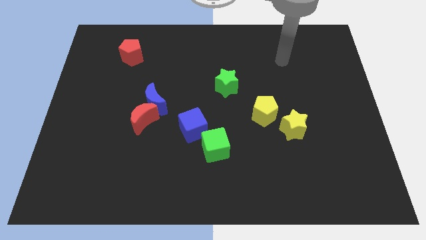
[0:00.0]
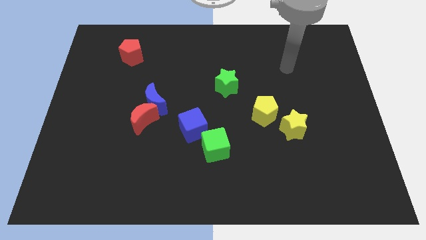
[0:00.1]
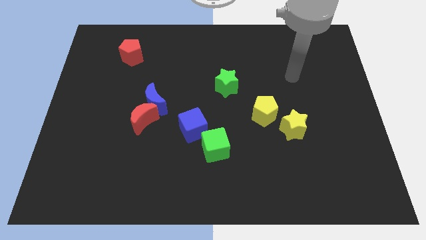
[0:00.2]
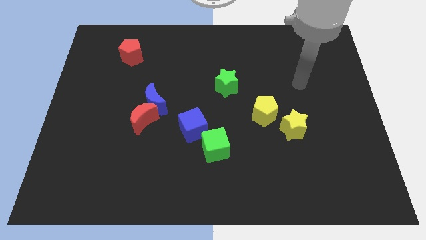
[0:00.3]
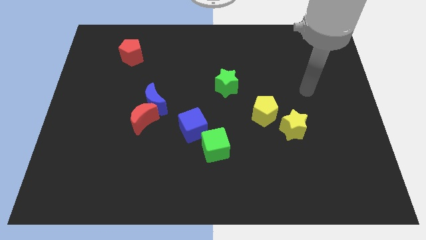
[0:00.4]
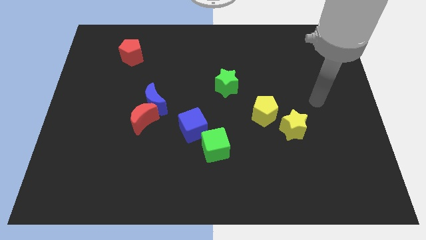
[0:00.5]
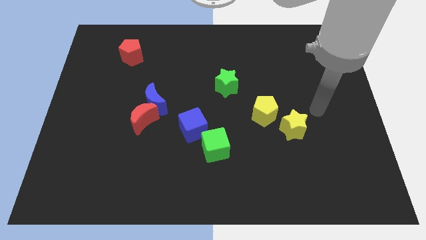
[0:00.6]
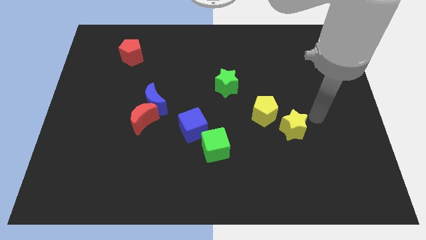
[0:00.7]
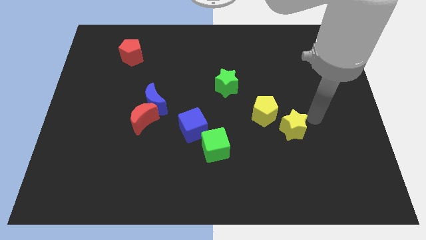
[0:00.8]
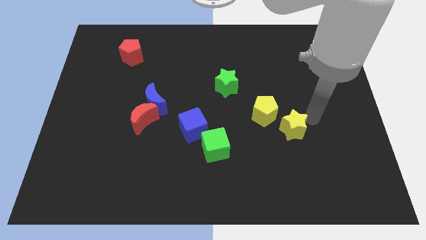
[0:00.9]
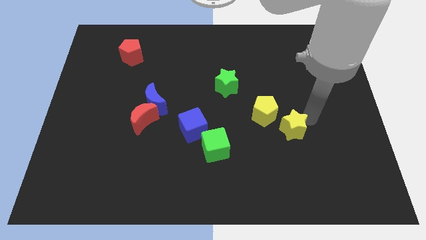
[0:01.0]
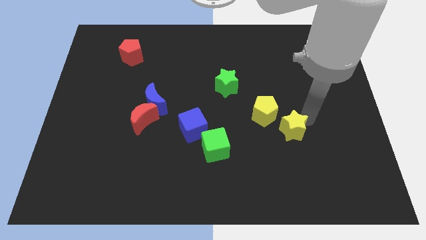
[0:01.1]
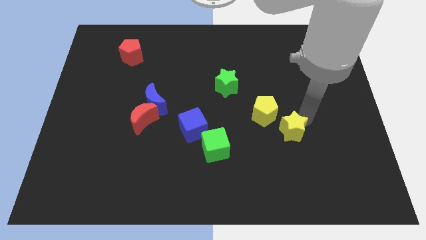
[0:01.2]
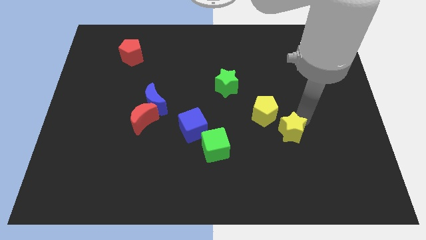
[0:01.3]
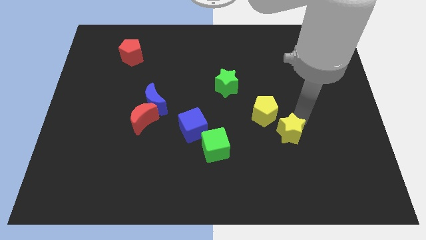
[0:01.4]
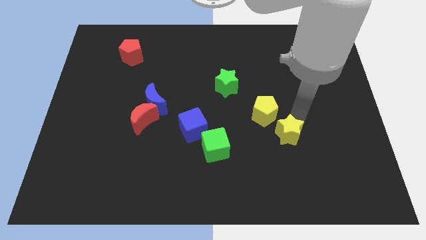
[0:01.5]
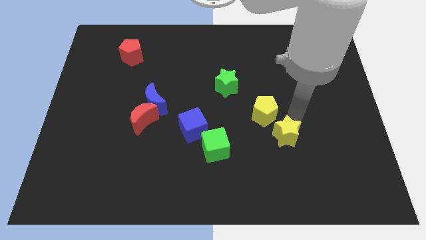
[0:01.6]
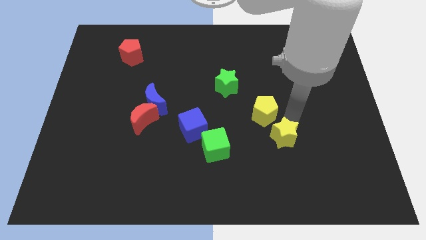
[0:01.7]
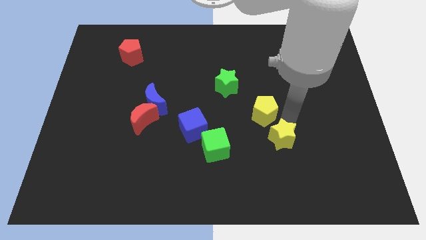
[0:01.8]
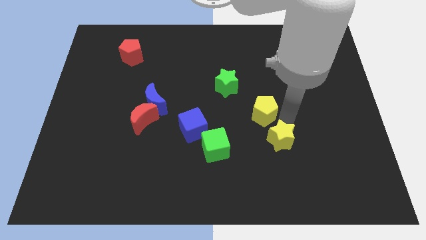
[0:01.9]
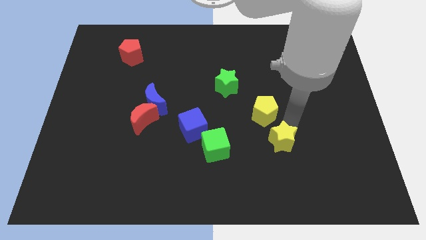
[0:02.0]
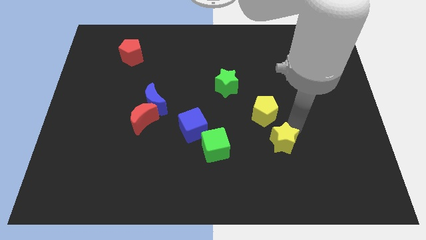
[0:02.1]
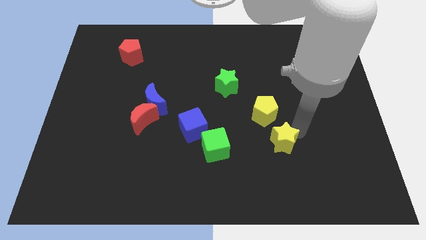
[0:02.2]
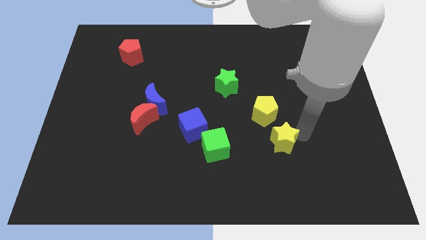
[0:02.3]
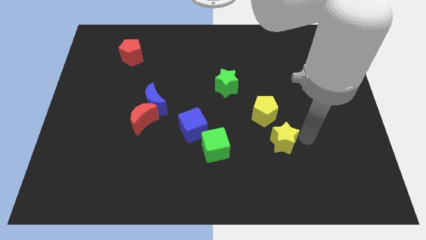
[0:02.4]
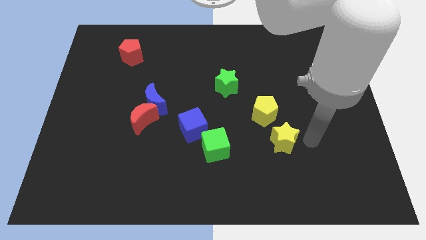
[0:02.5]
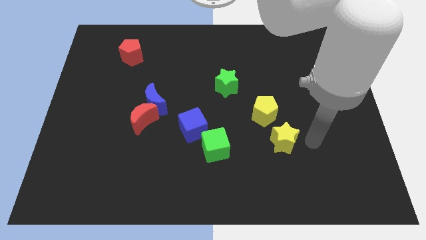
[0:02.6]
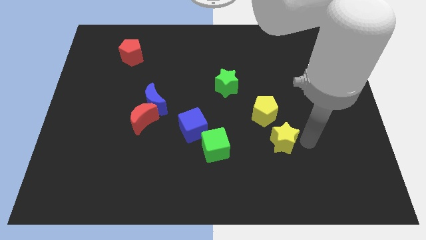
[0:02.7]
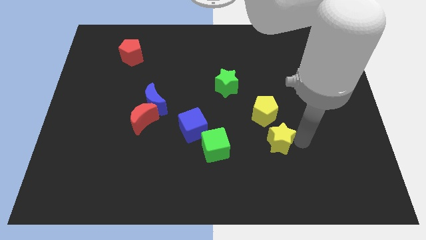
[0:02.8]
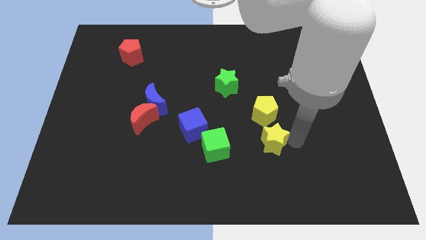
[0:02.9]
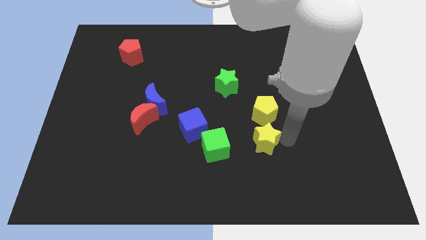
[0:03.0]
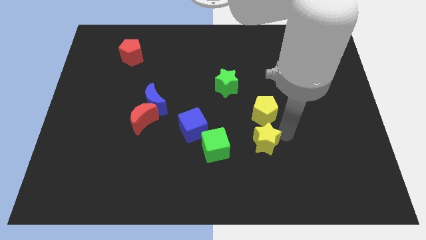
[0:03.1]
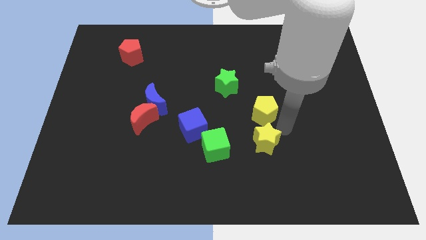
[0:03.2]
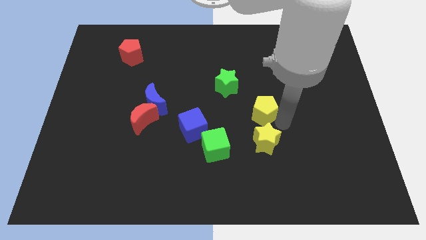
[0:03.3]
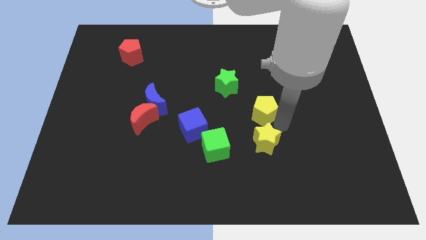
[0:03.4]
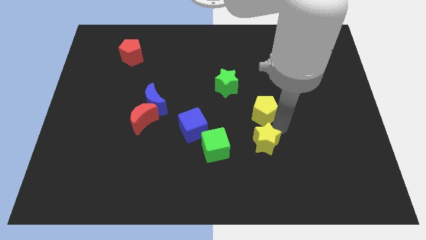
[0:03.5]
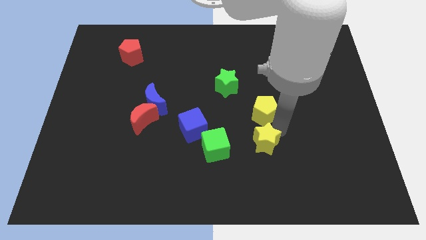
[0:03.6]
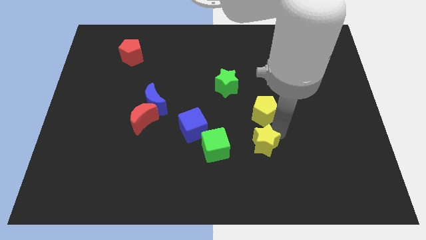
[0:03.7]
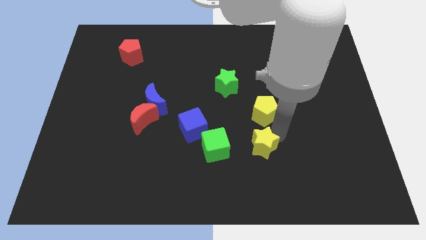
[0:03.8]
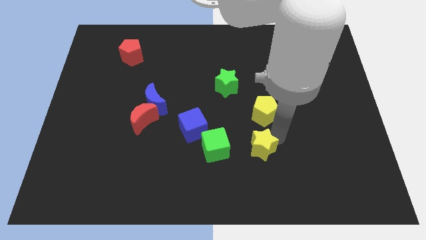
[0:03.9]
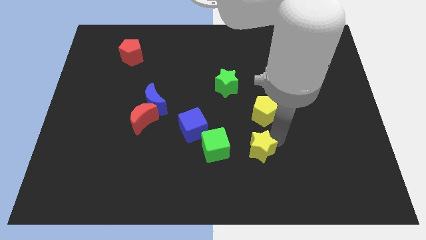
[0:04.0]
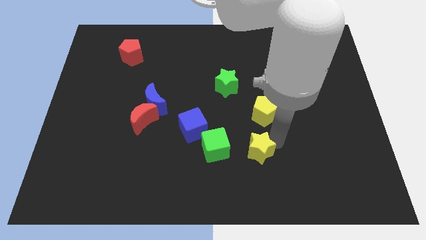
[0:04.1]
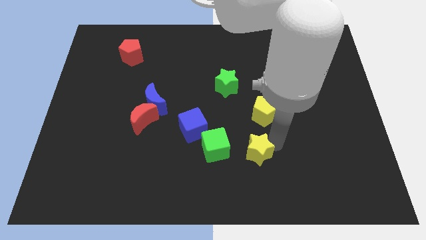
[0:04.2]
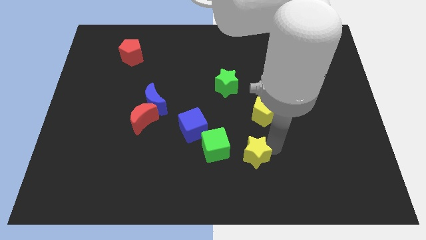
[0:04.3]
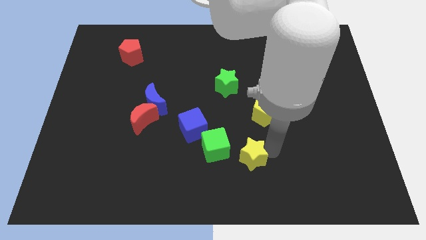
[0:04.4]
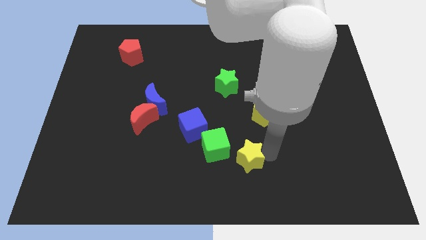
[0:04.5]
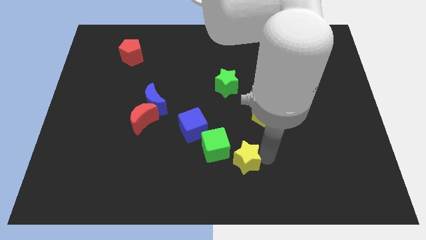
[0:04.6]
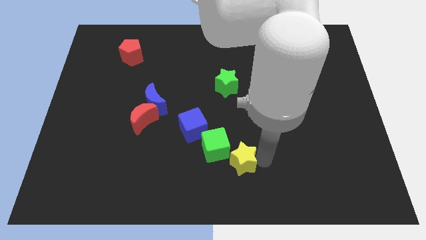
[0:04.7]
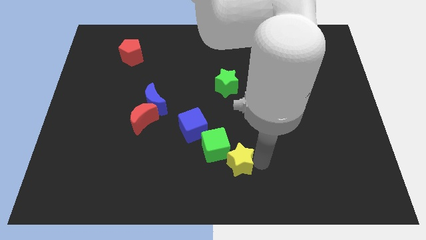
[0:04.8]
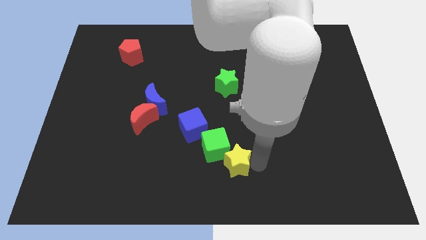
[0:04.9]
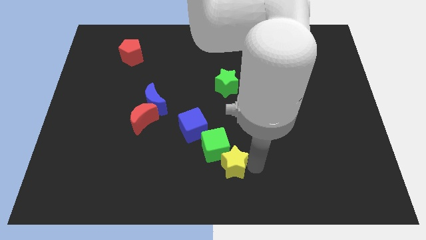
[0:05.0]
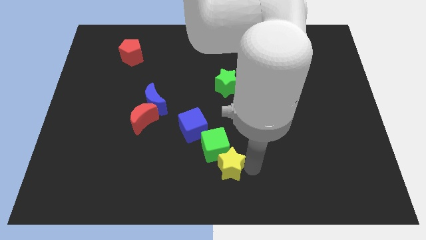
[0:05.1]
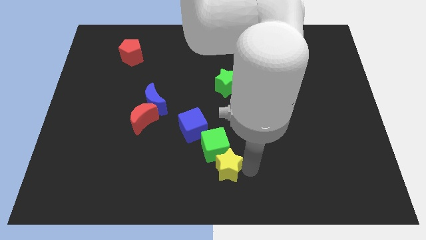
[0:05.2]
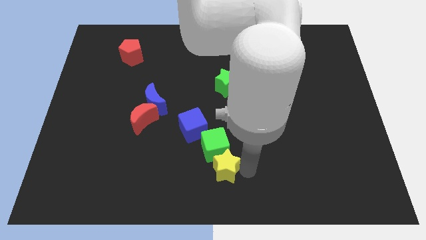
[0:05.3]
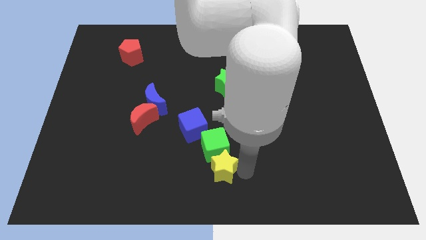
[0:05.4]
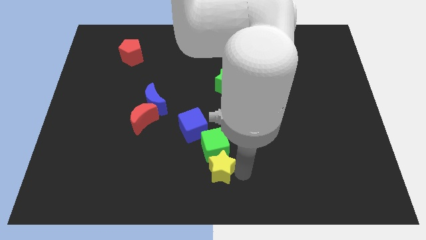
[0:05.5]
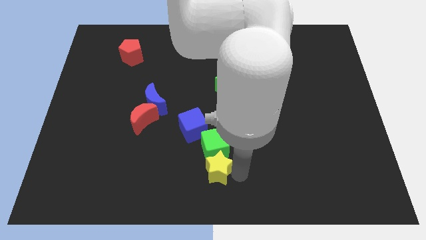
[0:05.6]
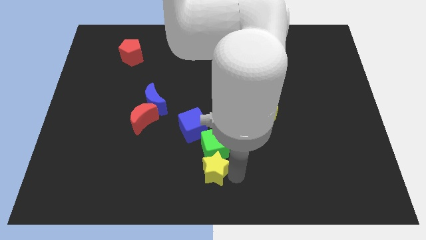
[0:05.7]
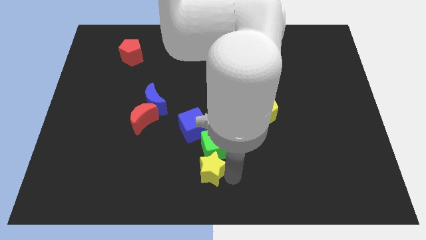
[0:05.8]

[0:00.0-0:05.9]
push the yellow star to the bottom side of the blue cube

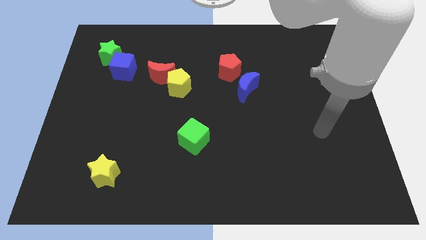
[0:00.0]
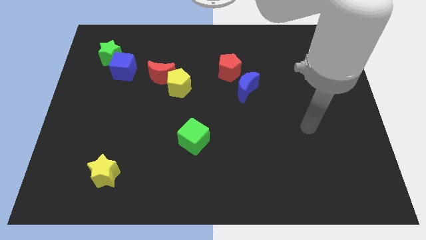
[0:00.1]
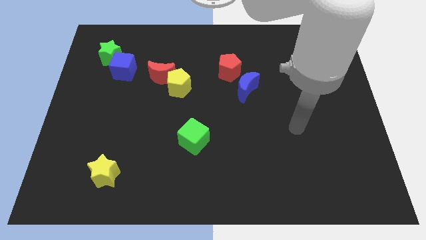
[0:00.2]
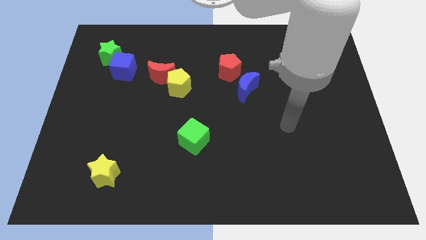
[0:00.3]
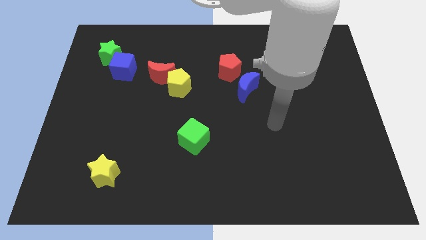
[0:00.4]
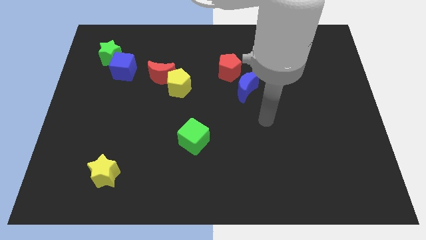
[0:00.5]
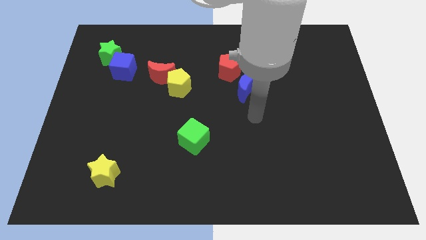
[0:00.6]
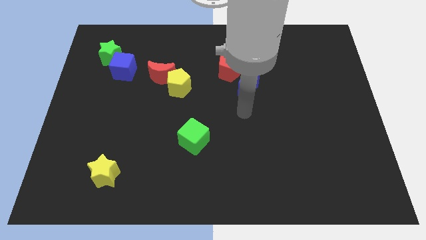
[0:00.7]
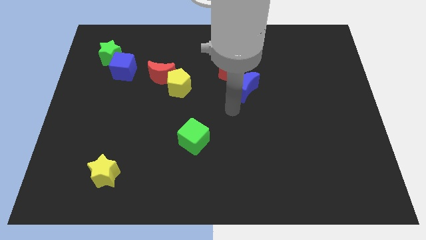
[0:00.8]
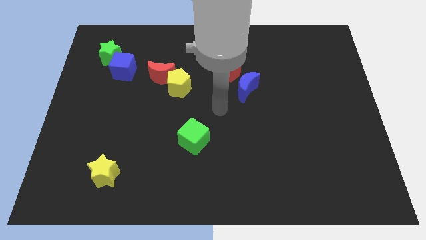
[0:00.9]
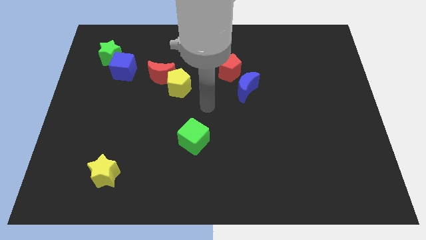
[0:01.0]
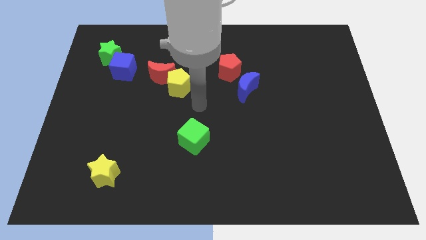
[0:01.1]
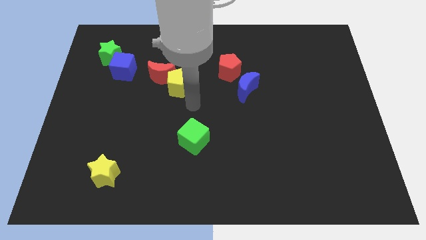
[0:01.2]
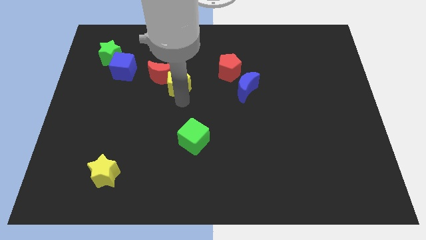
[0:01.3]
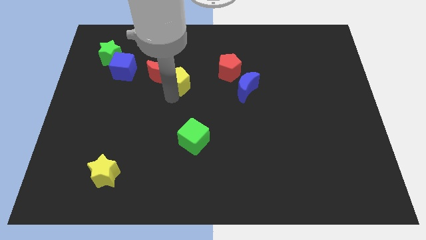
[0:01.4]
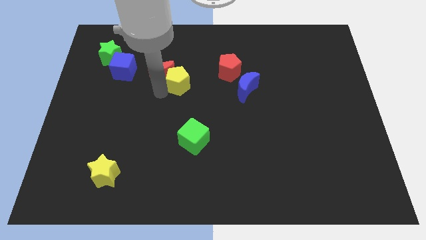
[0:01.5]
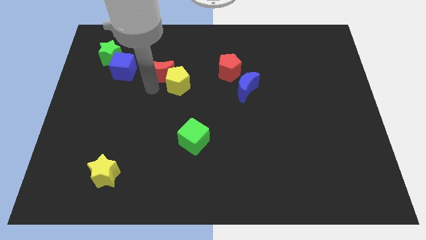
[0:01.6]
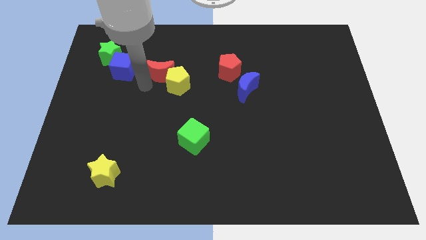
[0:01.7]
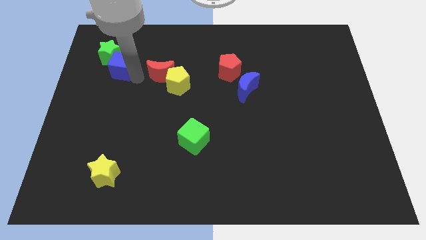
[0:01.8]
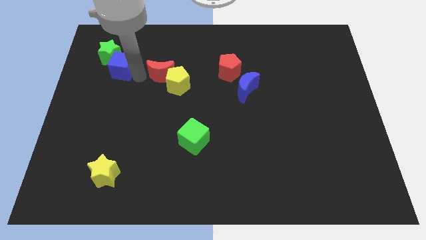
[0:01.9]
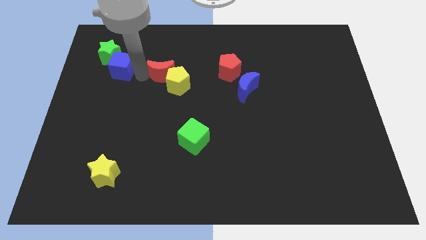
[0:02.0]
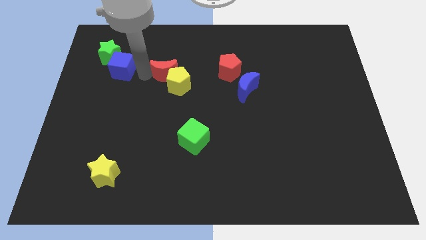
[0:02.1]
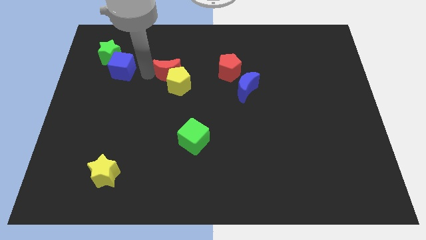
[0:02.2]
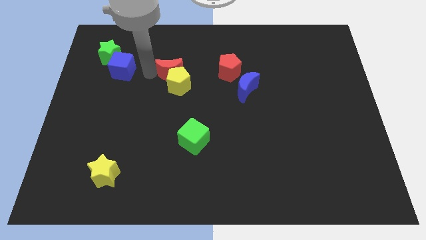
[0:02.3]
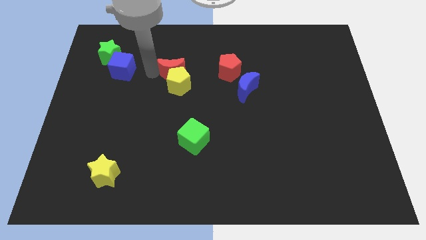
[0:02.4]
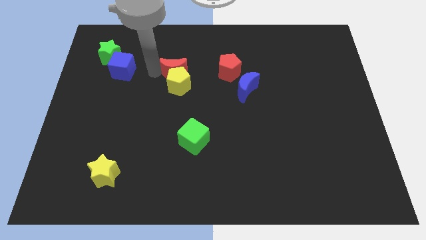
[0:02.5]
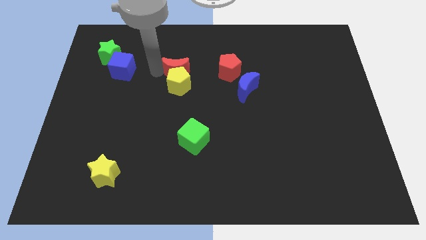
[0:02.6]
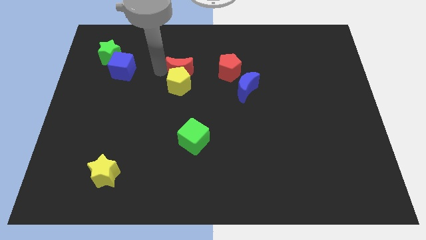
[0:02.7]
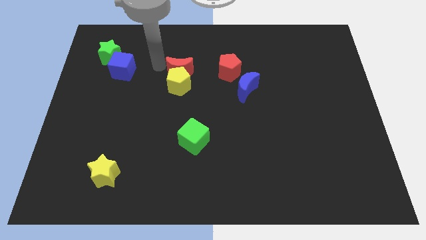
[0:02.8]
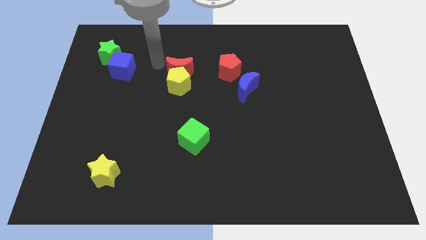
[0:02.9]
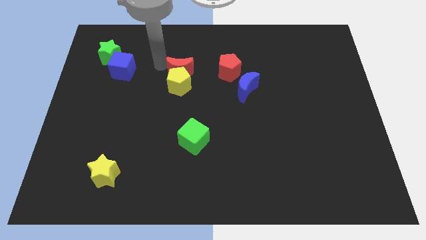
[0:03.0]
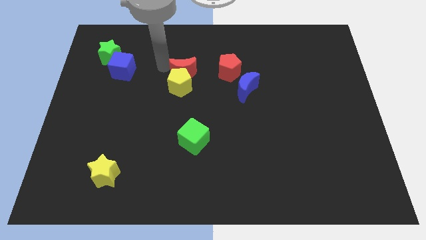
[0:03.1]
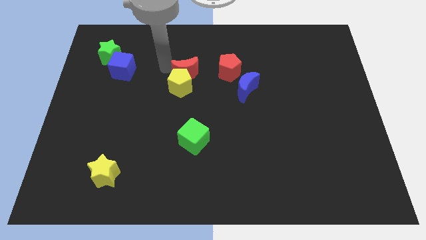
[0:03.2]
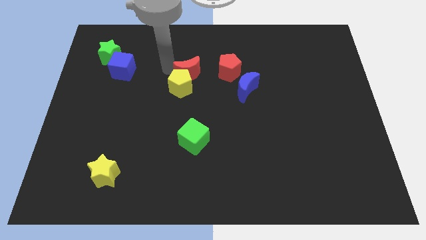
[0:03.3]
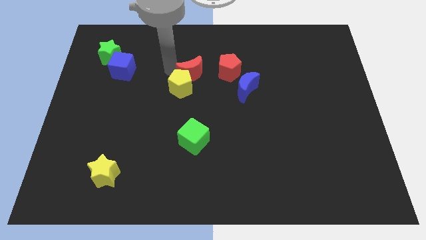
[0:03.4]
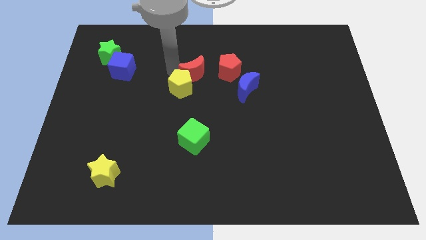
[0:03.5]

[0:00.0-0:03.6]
slide the red moon right of the yellow pentagon
